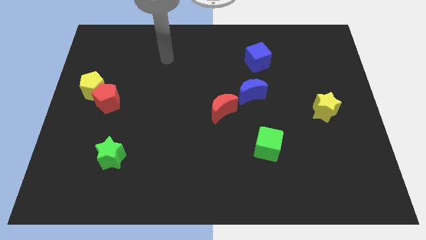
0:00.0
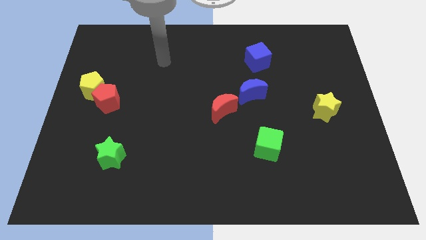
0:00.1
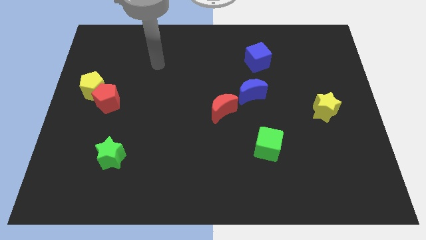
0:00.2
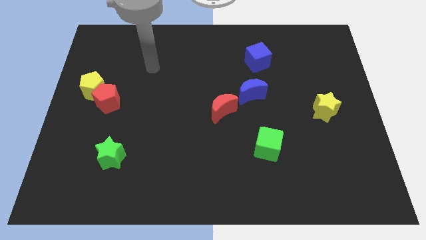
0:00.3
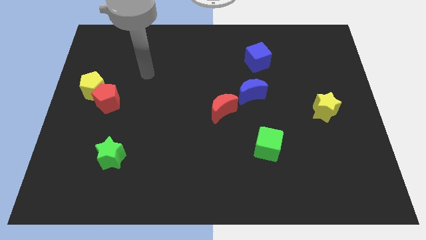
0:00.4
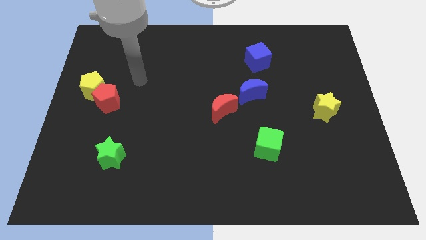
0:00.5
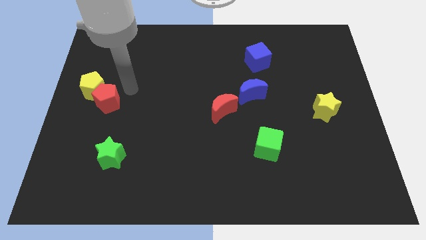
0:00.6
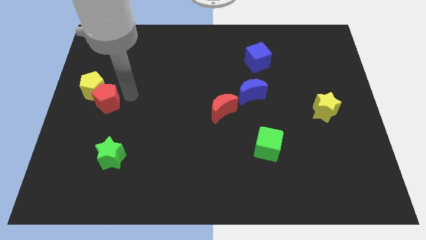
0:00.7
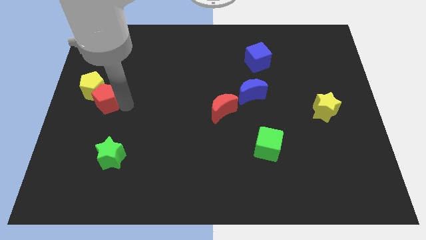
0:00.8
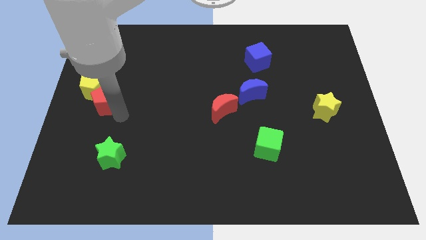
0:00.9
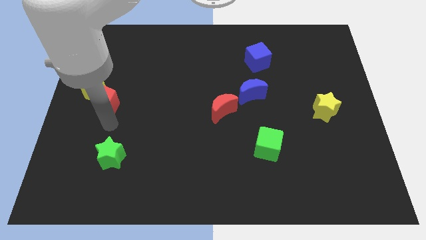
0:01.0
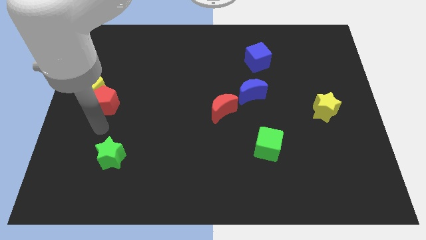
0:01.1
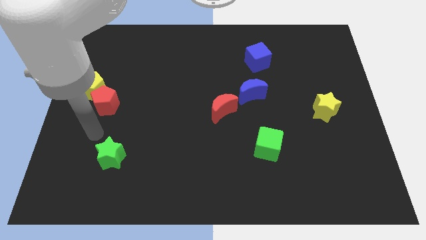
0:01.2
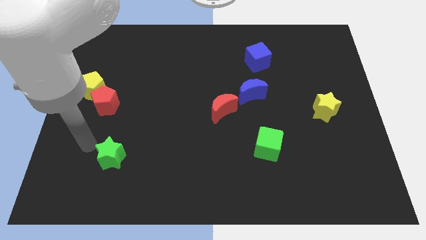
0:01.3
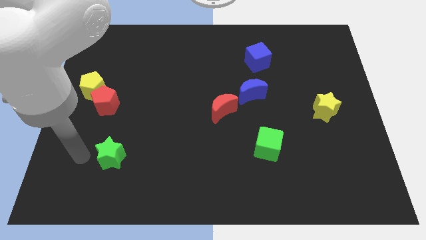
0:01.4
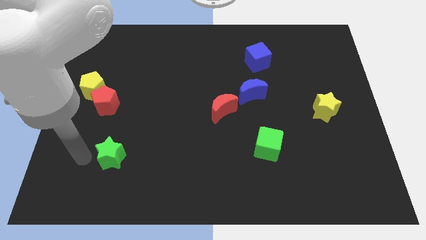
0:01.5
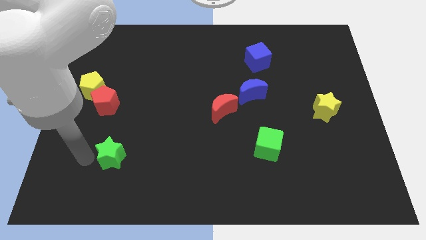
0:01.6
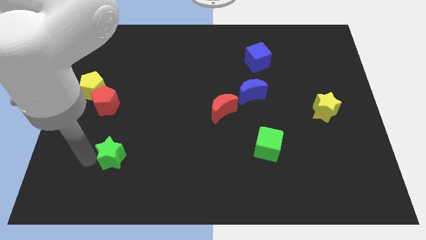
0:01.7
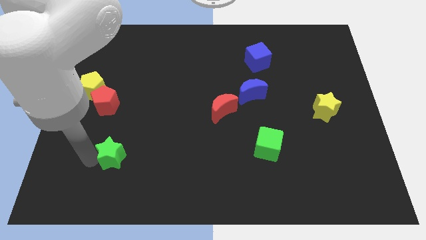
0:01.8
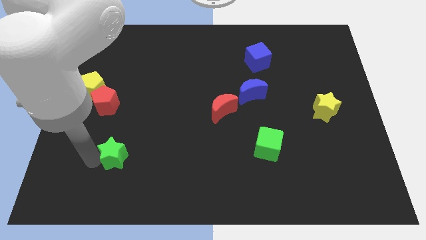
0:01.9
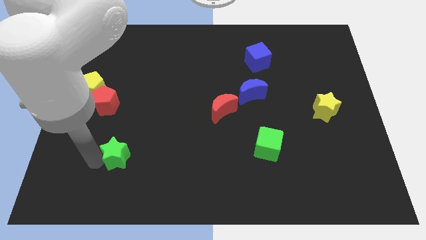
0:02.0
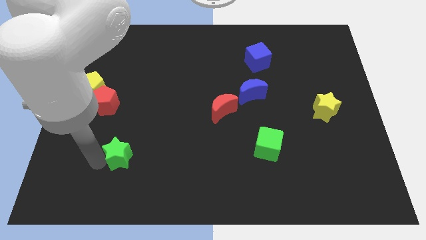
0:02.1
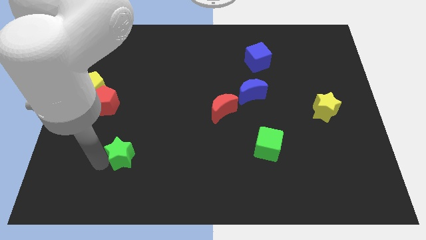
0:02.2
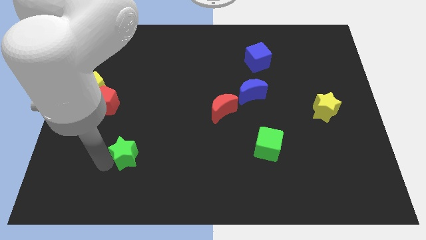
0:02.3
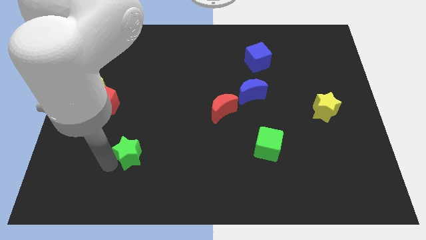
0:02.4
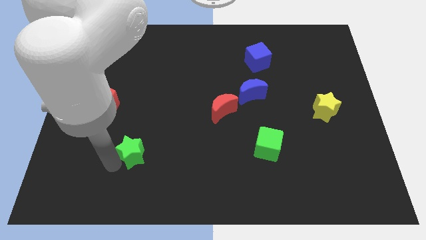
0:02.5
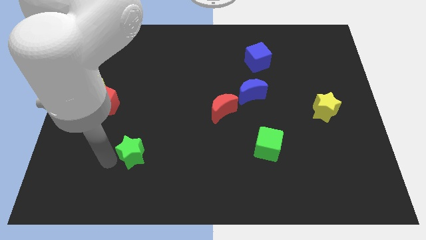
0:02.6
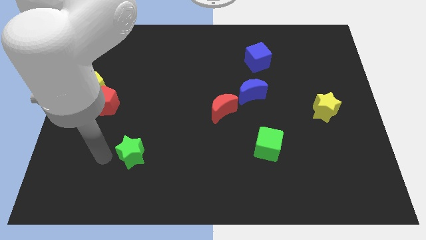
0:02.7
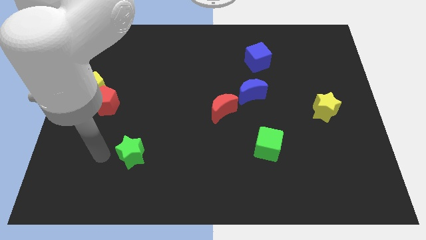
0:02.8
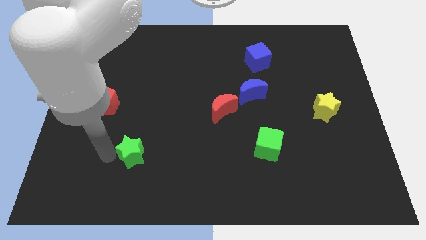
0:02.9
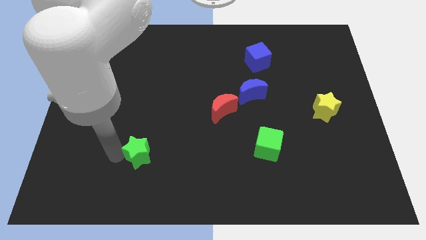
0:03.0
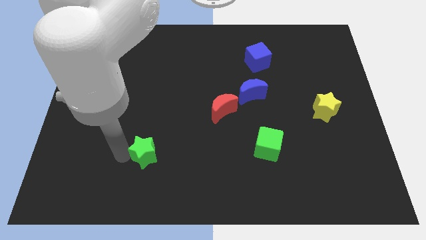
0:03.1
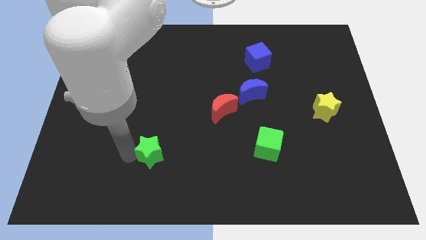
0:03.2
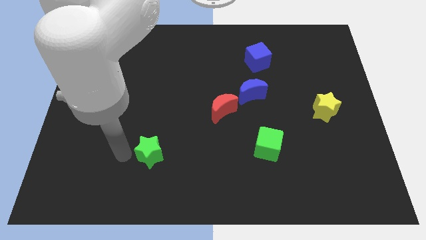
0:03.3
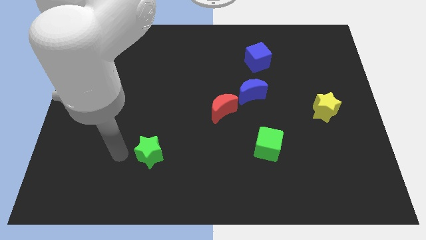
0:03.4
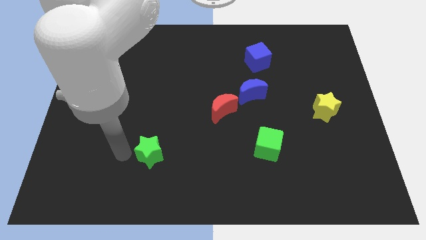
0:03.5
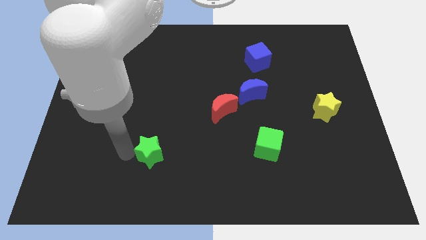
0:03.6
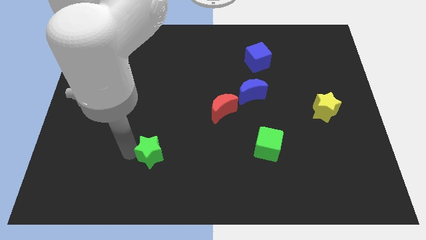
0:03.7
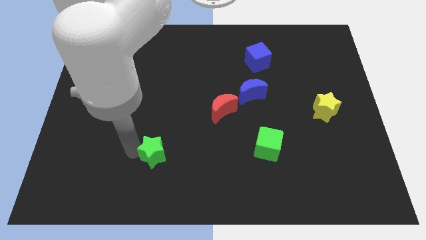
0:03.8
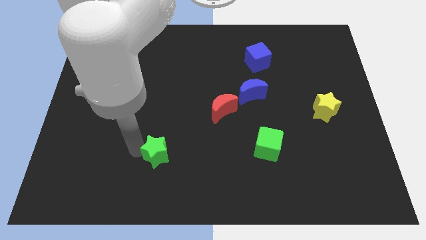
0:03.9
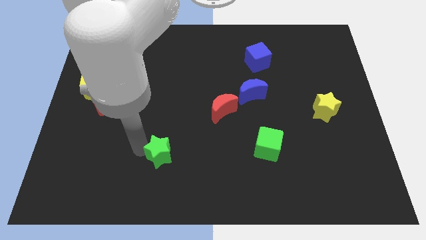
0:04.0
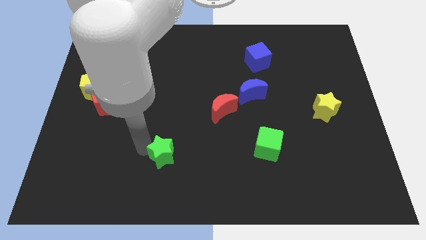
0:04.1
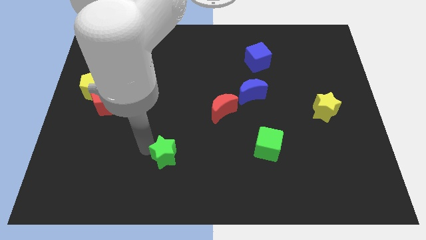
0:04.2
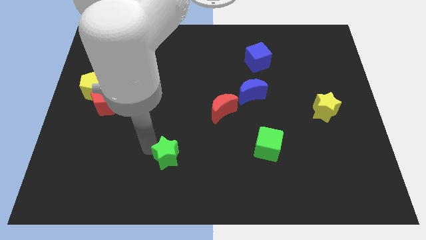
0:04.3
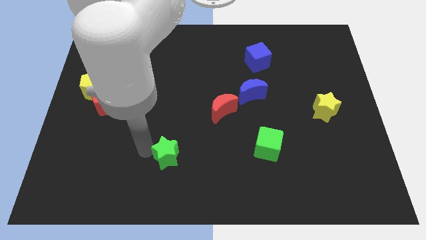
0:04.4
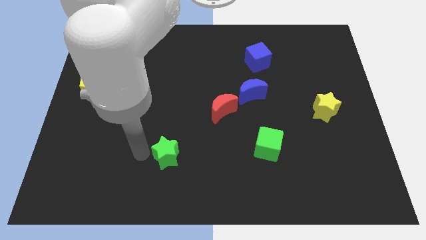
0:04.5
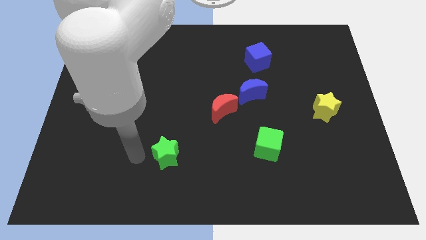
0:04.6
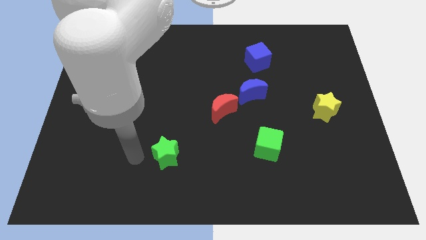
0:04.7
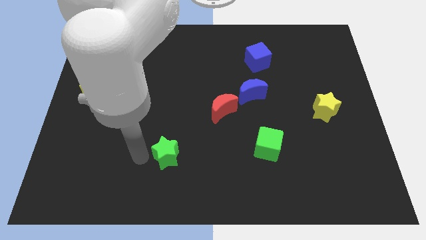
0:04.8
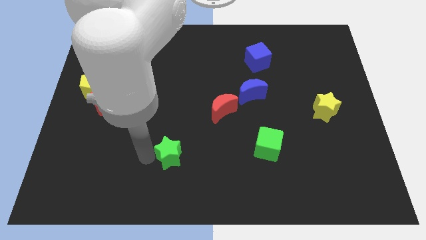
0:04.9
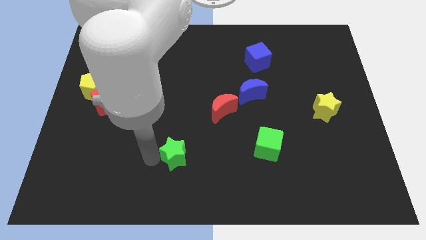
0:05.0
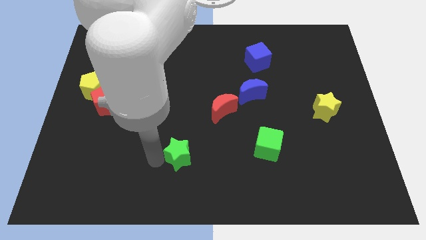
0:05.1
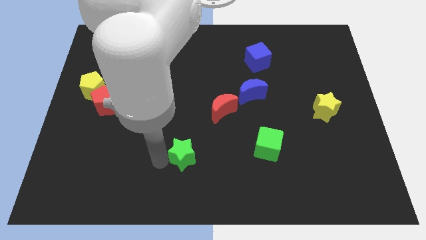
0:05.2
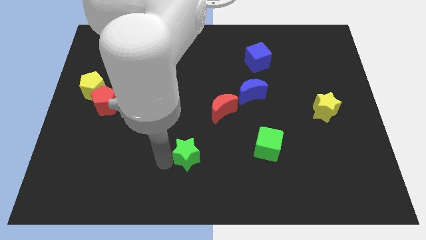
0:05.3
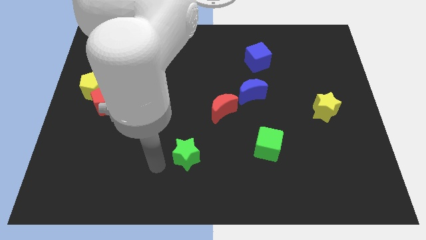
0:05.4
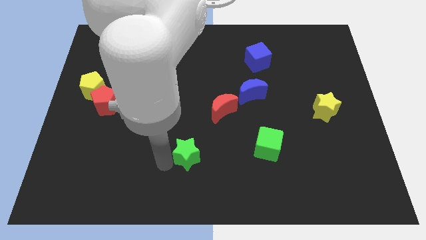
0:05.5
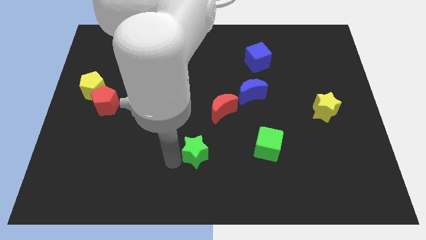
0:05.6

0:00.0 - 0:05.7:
slide the green star just left of the green cube

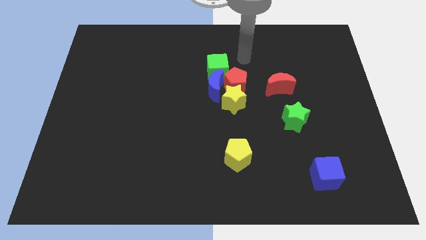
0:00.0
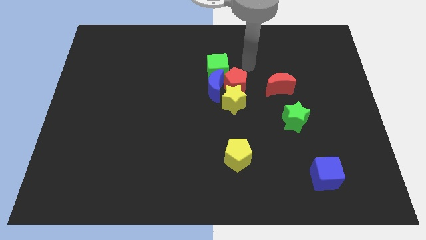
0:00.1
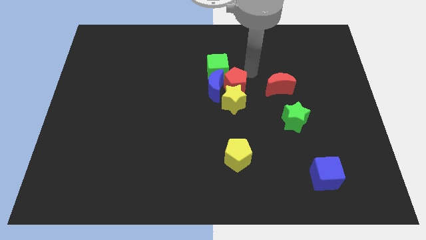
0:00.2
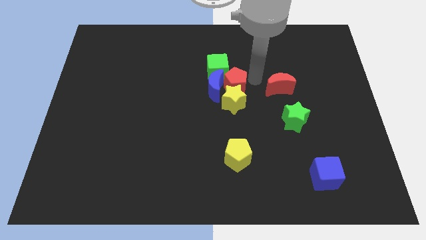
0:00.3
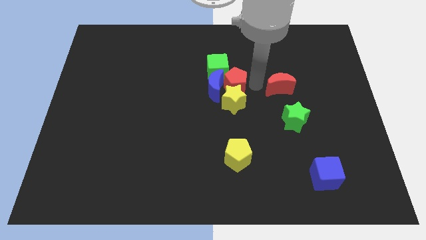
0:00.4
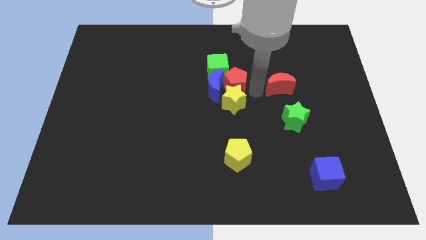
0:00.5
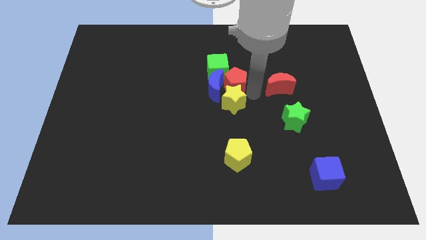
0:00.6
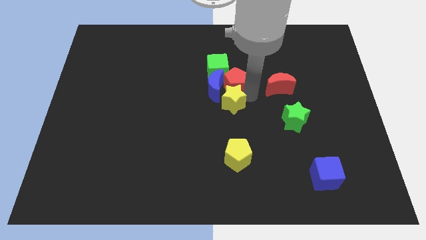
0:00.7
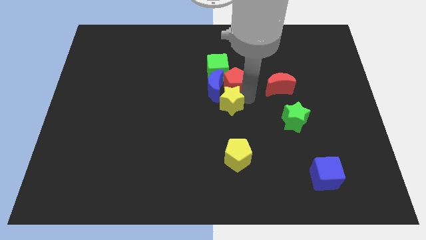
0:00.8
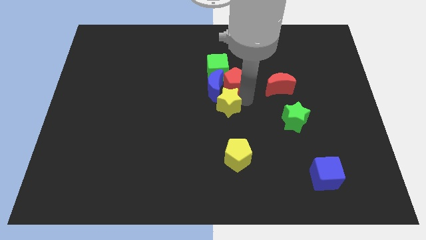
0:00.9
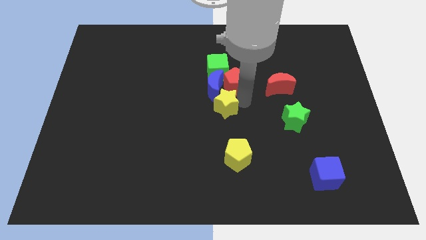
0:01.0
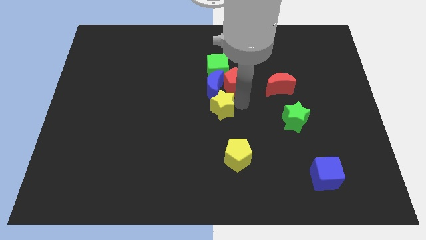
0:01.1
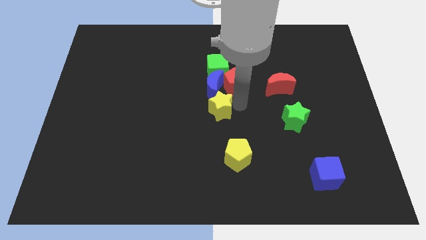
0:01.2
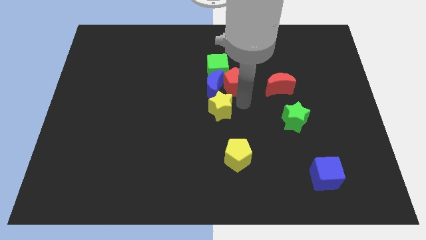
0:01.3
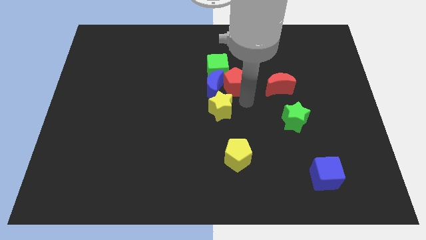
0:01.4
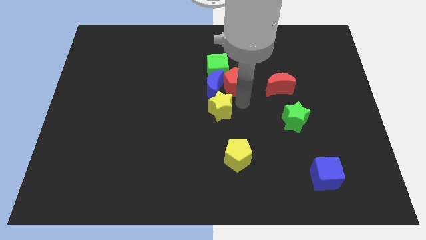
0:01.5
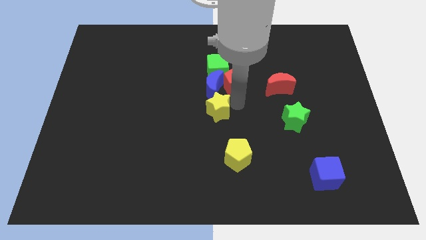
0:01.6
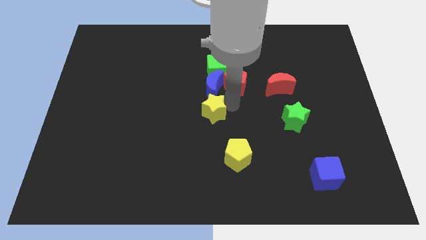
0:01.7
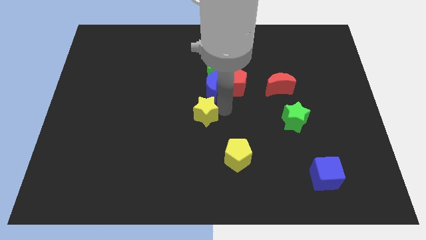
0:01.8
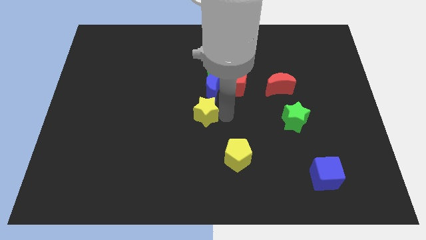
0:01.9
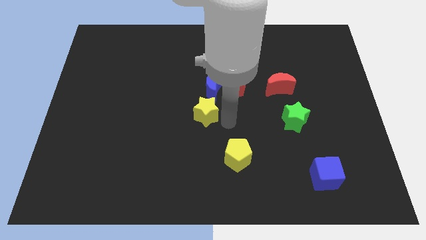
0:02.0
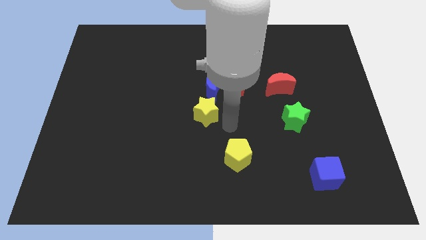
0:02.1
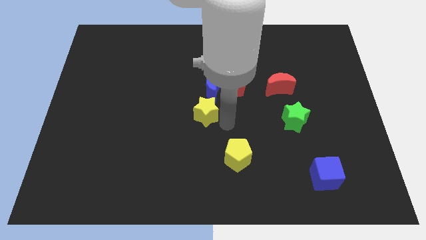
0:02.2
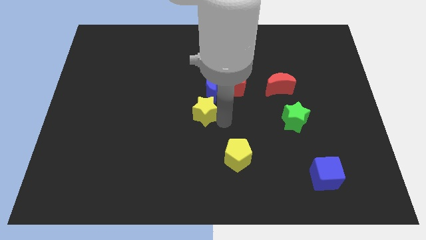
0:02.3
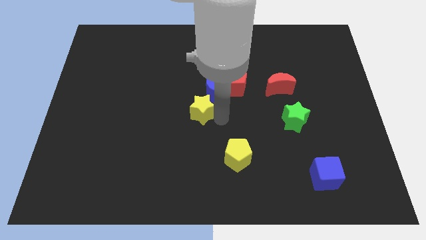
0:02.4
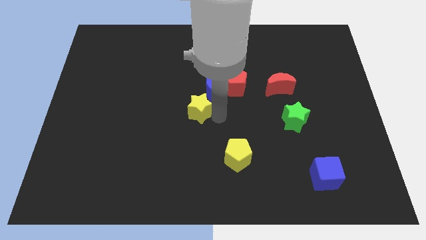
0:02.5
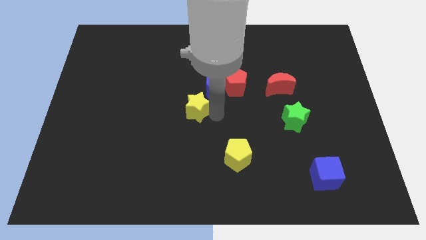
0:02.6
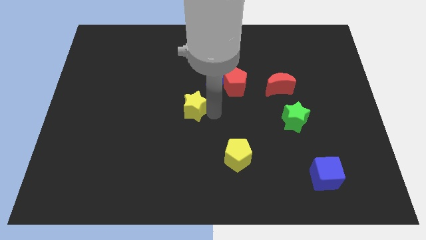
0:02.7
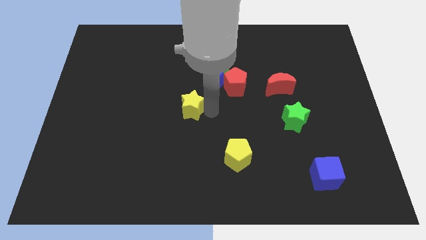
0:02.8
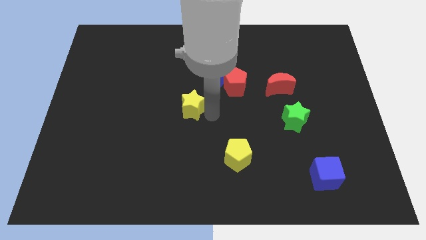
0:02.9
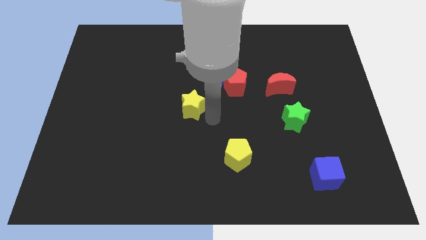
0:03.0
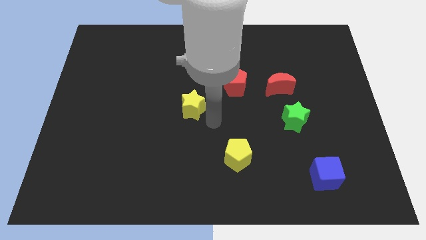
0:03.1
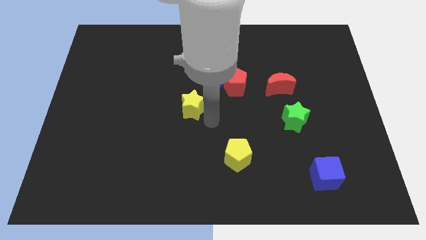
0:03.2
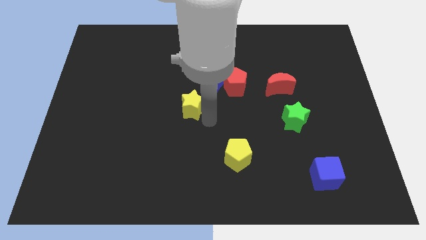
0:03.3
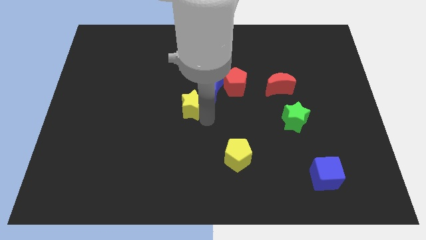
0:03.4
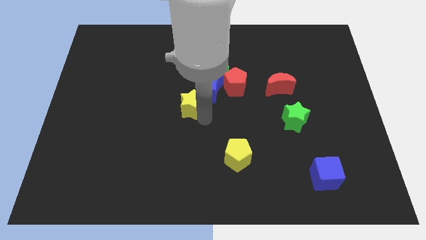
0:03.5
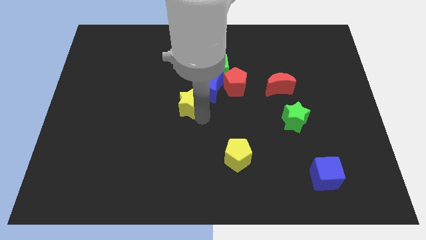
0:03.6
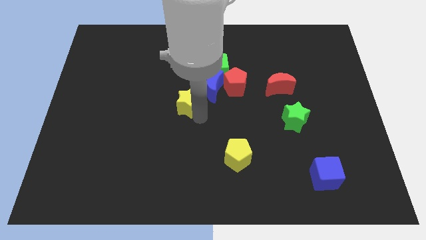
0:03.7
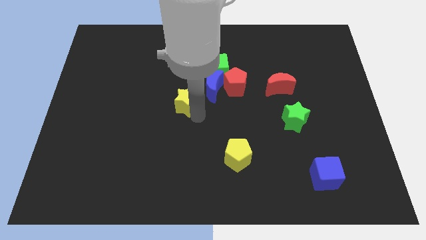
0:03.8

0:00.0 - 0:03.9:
put the yellow star to the left of the blue moon
